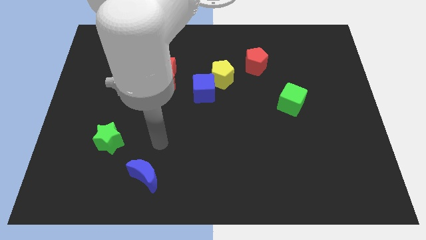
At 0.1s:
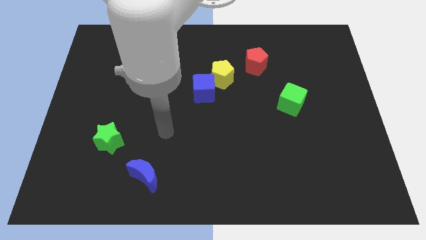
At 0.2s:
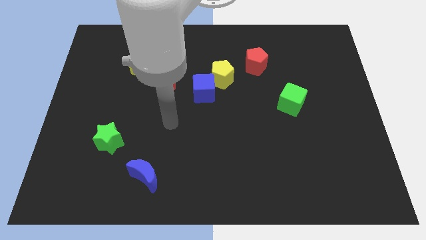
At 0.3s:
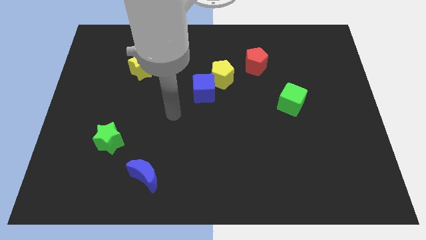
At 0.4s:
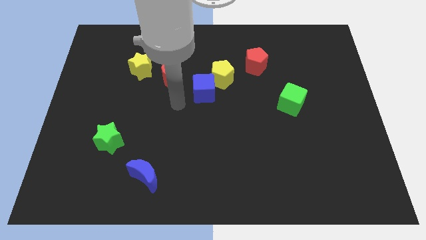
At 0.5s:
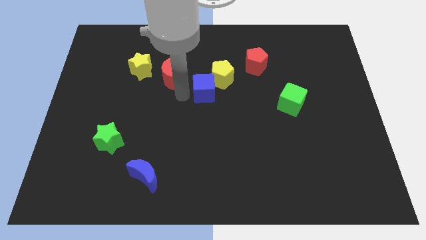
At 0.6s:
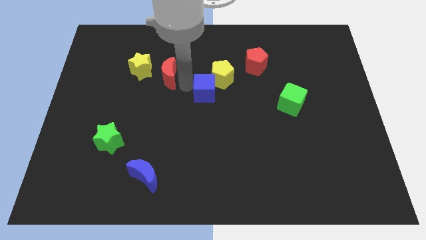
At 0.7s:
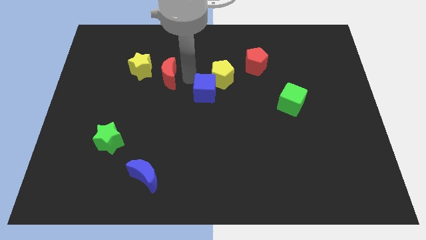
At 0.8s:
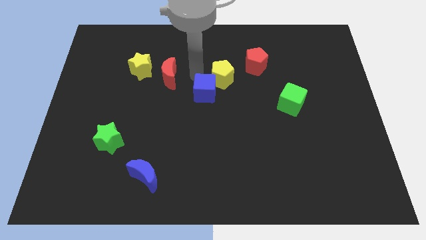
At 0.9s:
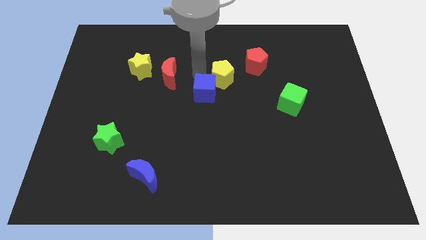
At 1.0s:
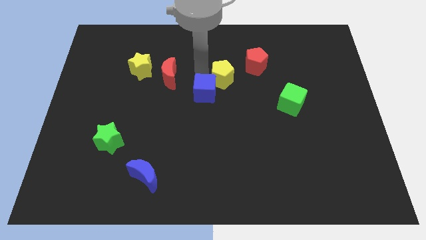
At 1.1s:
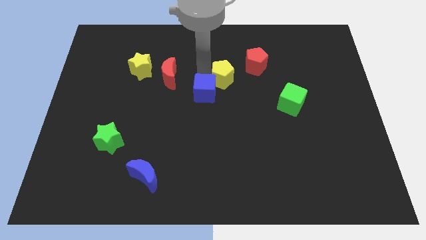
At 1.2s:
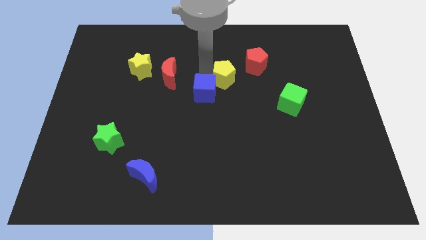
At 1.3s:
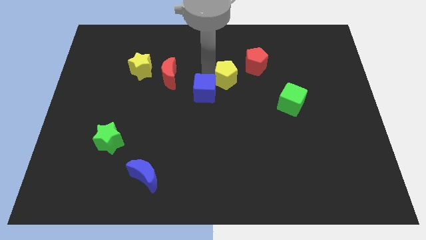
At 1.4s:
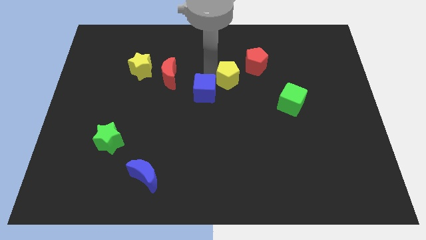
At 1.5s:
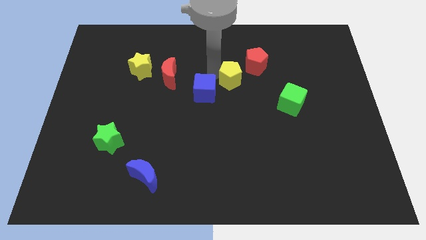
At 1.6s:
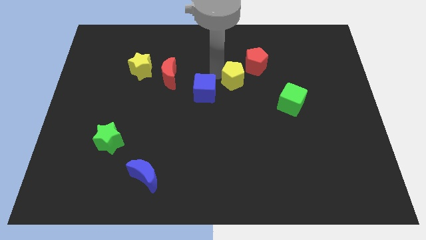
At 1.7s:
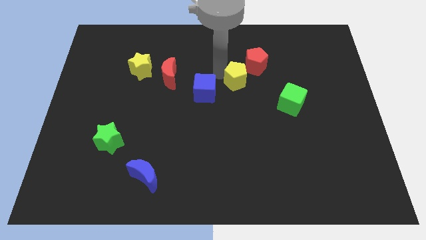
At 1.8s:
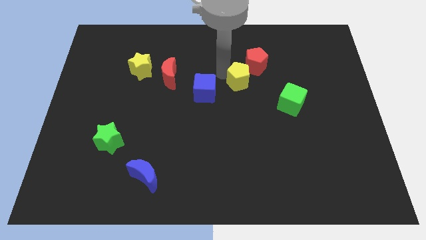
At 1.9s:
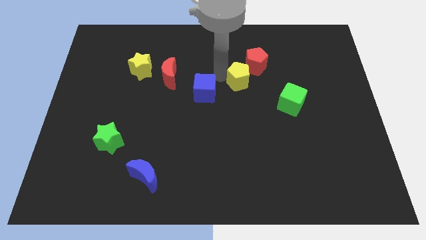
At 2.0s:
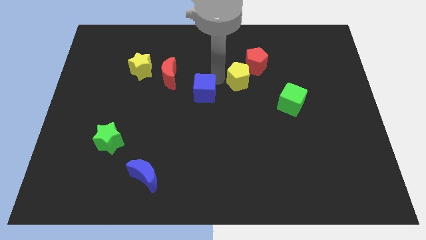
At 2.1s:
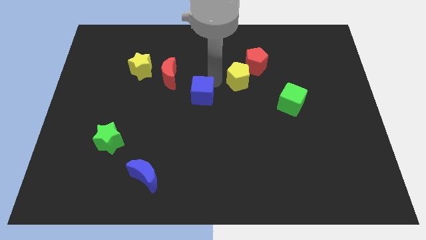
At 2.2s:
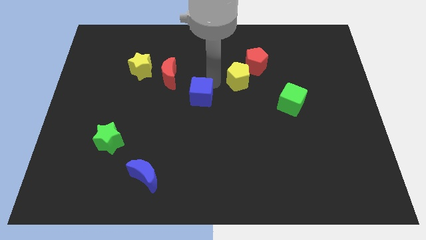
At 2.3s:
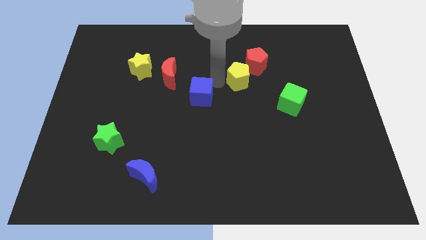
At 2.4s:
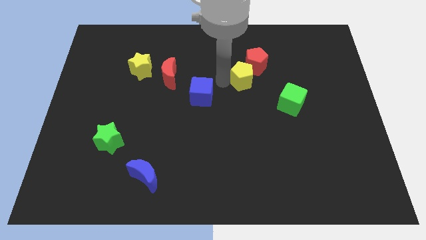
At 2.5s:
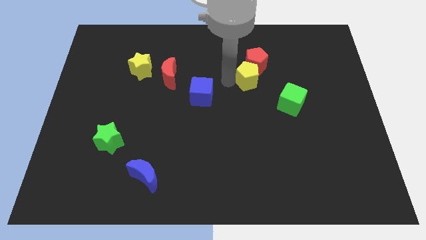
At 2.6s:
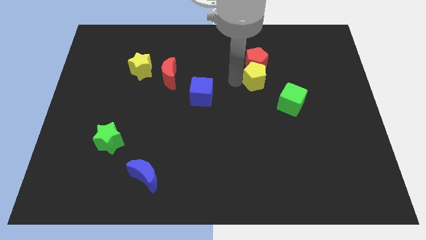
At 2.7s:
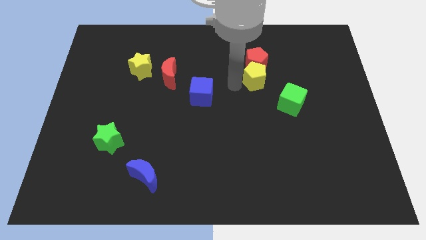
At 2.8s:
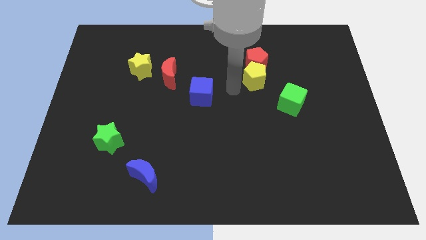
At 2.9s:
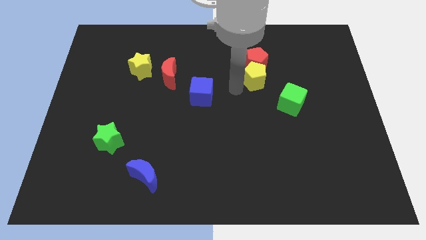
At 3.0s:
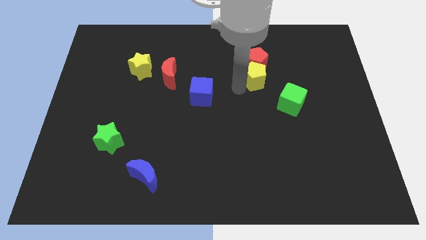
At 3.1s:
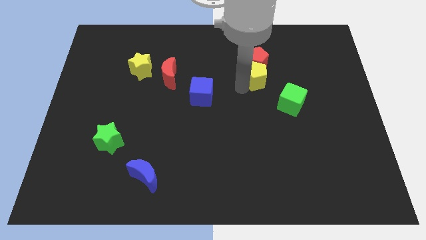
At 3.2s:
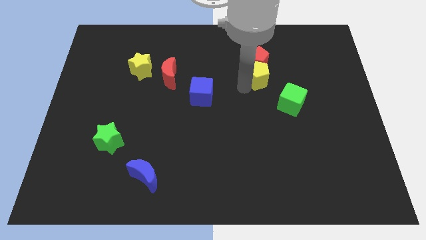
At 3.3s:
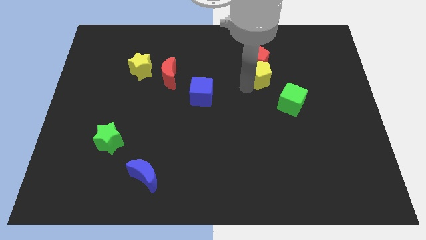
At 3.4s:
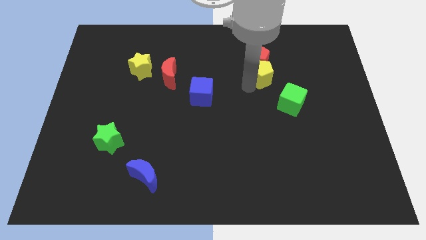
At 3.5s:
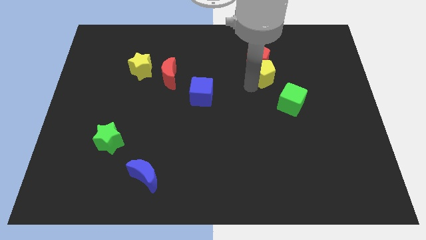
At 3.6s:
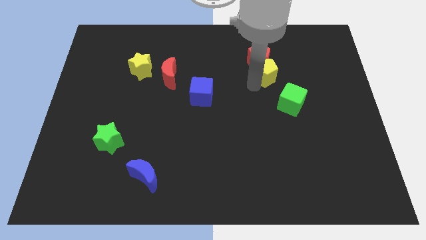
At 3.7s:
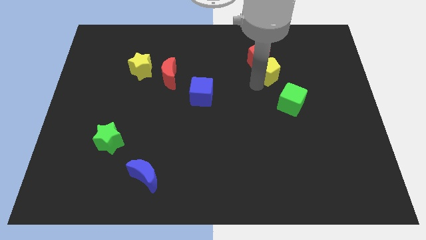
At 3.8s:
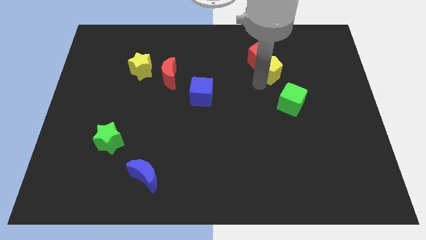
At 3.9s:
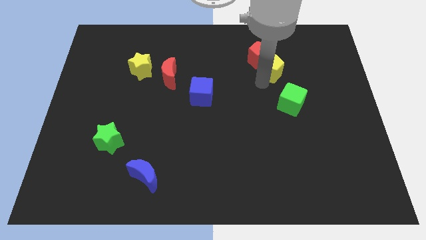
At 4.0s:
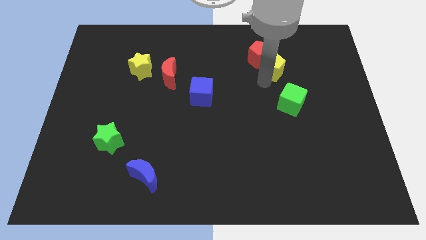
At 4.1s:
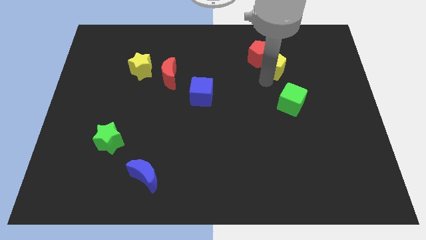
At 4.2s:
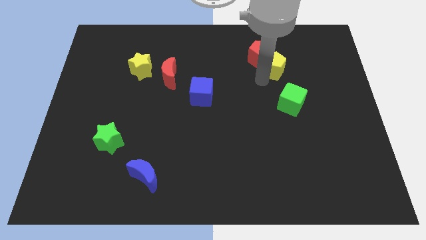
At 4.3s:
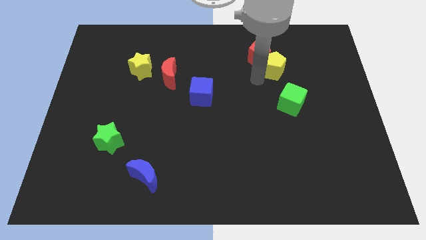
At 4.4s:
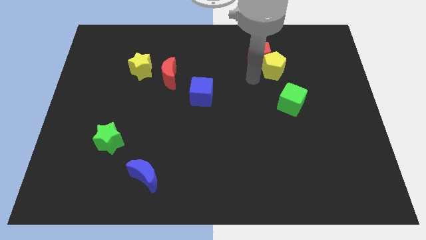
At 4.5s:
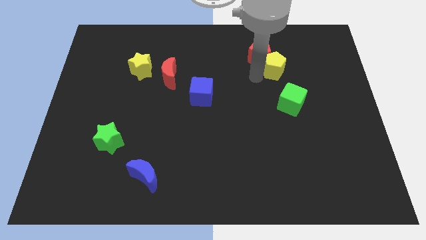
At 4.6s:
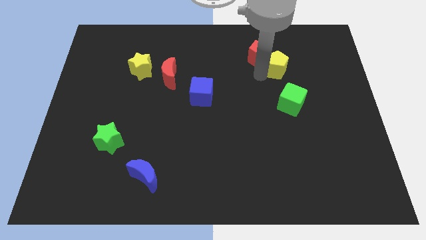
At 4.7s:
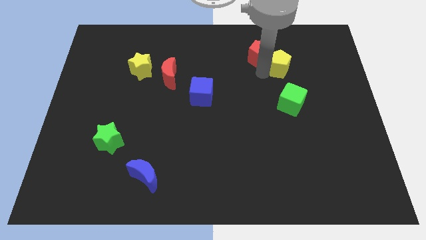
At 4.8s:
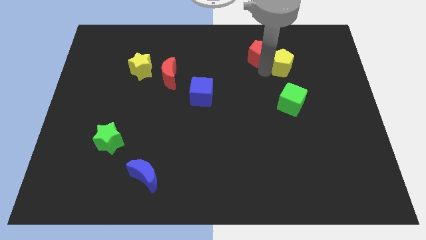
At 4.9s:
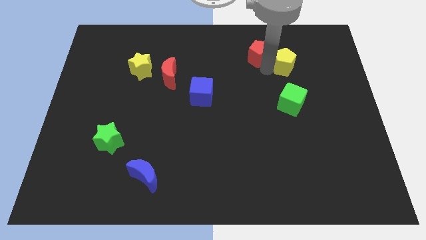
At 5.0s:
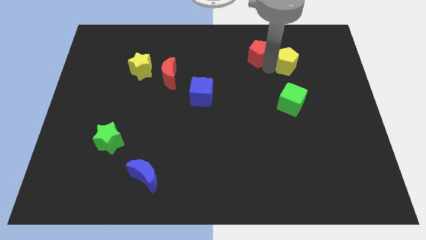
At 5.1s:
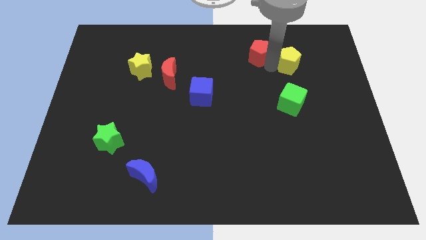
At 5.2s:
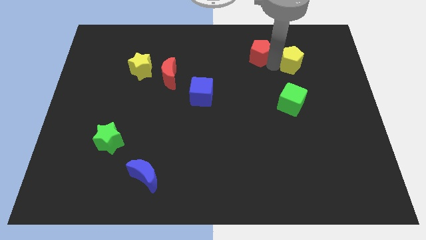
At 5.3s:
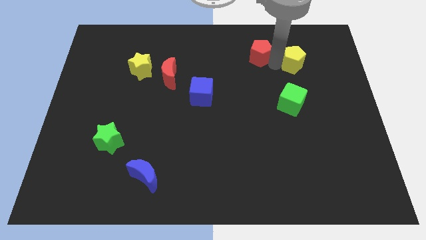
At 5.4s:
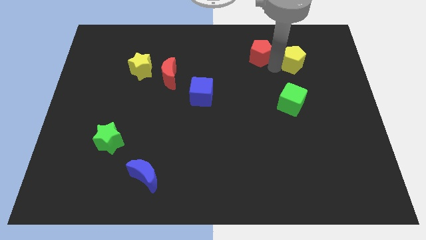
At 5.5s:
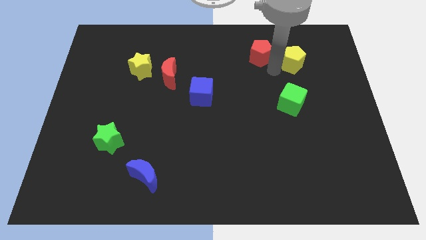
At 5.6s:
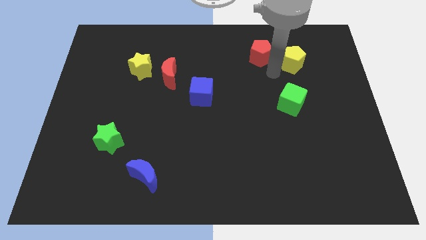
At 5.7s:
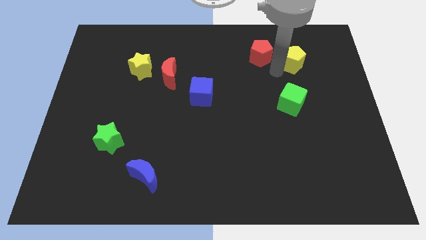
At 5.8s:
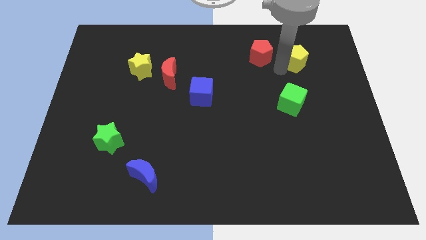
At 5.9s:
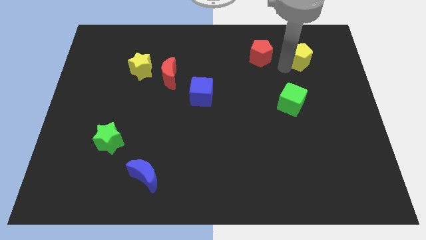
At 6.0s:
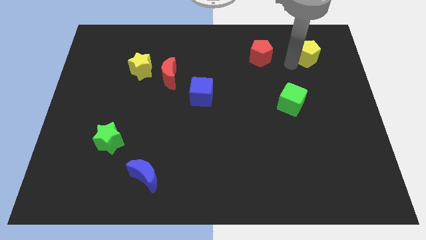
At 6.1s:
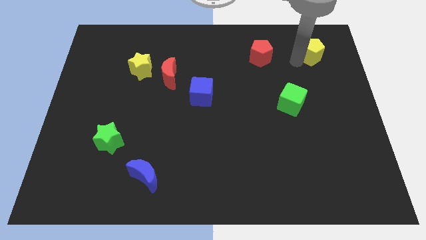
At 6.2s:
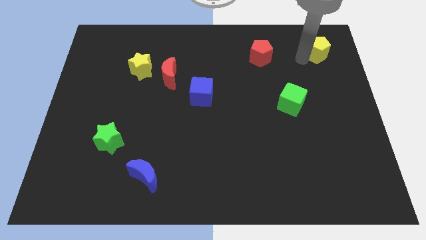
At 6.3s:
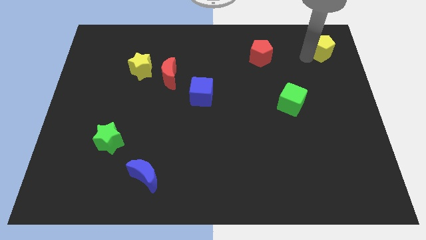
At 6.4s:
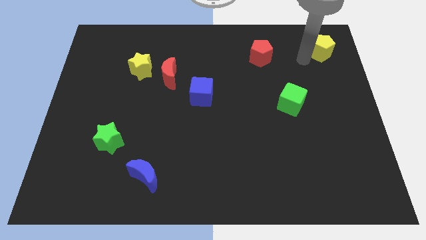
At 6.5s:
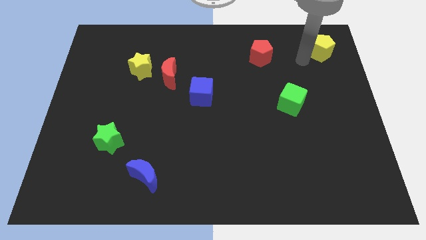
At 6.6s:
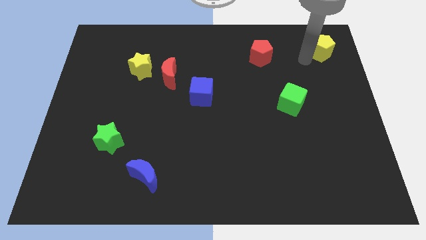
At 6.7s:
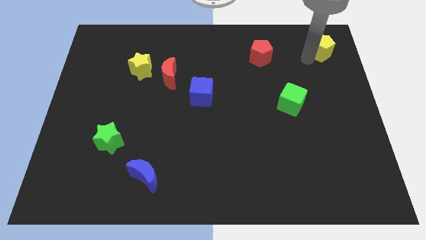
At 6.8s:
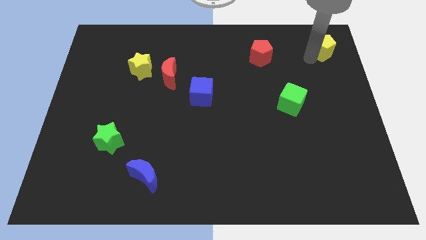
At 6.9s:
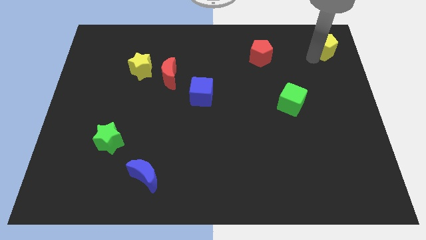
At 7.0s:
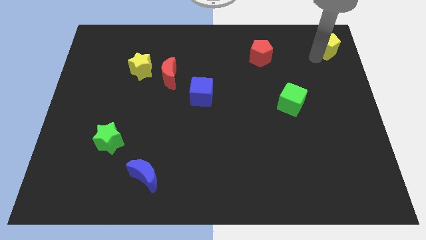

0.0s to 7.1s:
slide the yellow pentagon to the top right of the board
